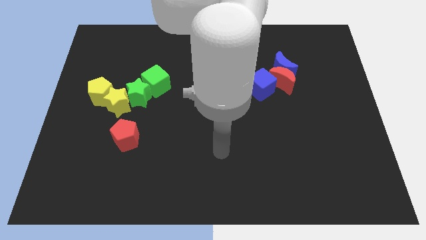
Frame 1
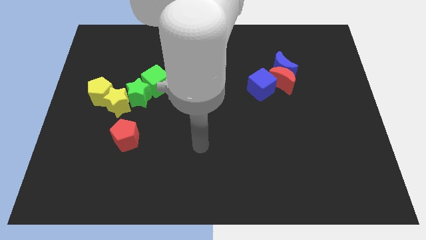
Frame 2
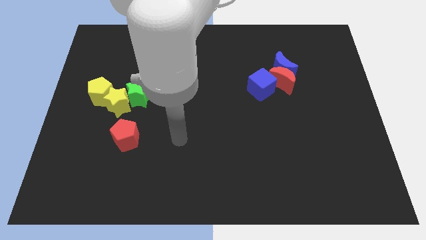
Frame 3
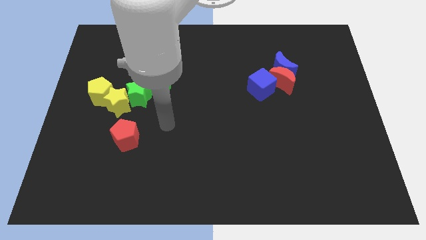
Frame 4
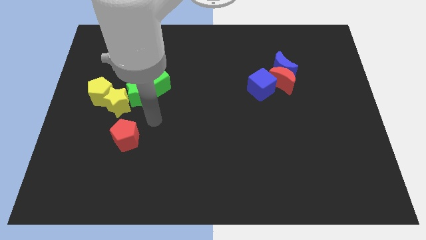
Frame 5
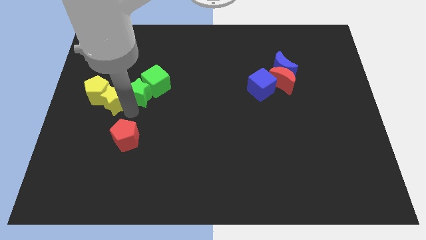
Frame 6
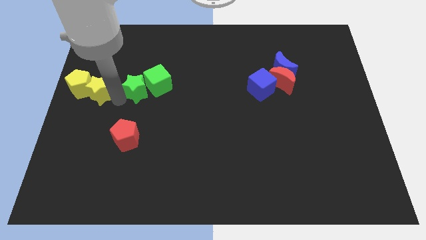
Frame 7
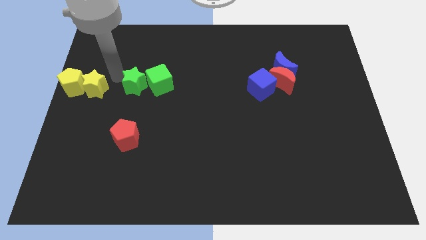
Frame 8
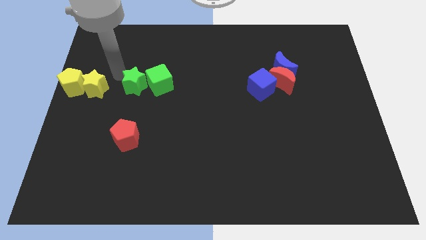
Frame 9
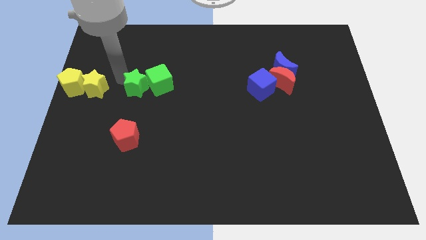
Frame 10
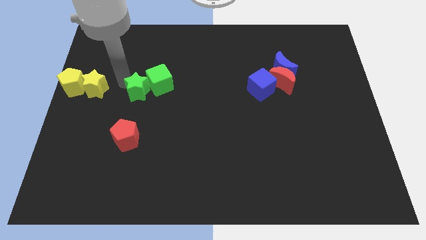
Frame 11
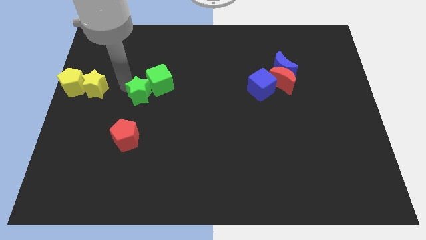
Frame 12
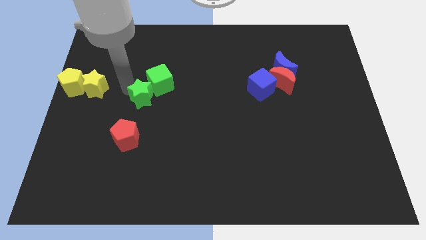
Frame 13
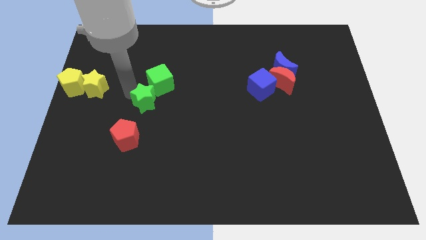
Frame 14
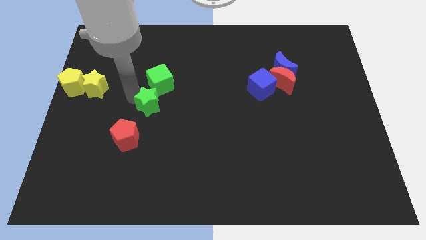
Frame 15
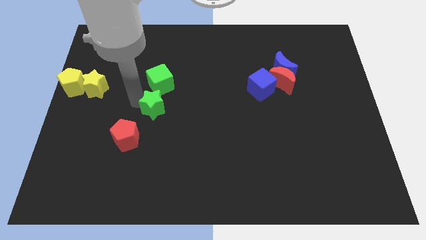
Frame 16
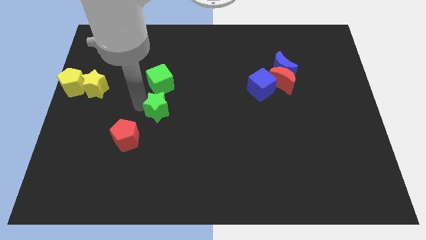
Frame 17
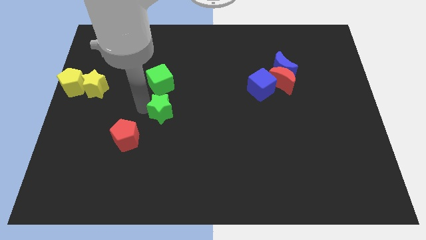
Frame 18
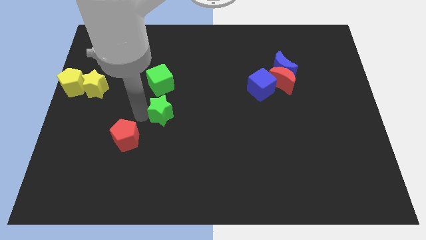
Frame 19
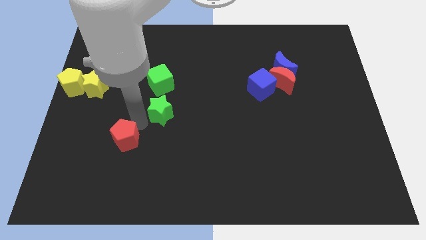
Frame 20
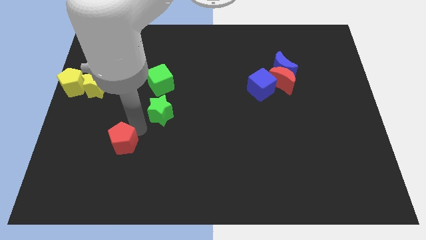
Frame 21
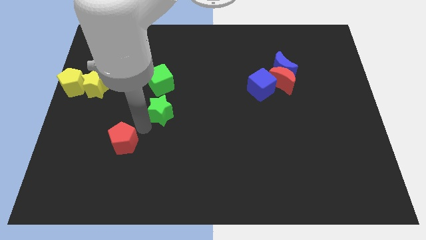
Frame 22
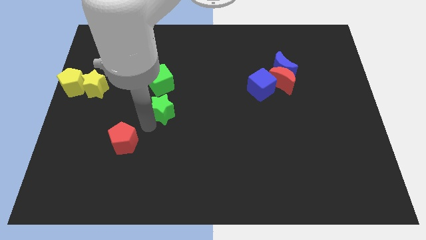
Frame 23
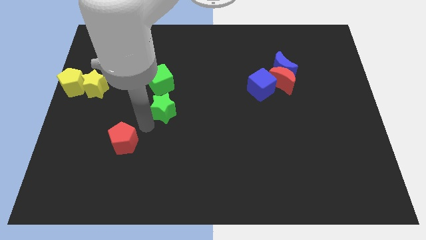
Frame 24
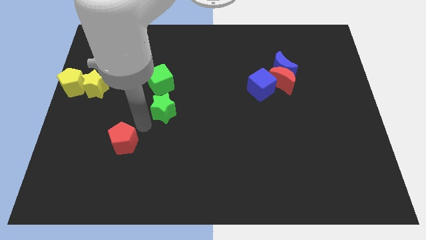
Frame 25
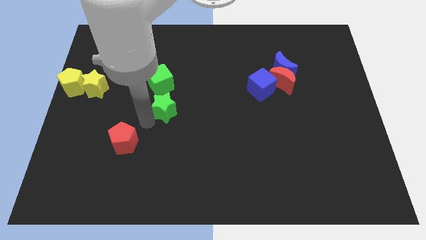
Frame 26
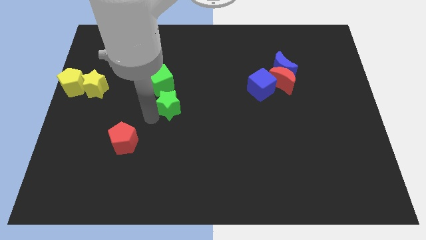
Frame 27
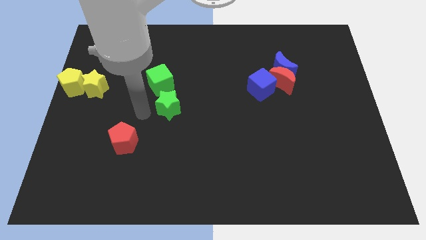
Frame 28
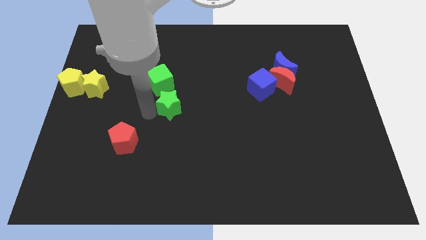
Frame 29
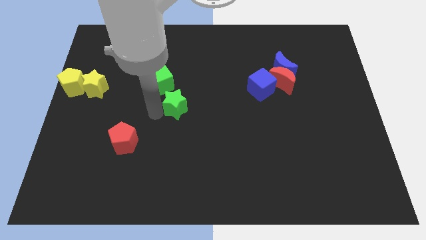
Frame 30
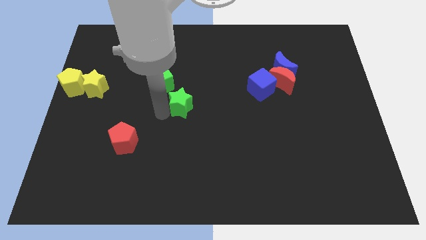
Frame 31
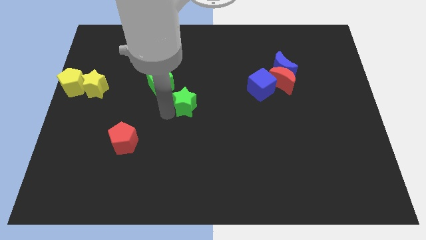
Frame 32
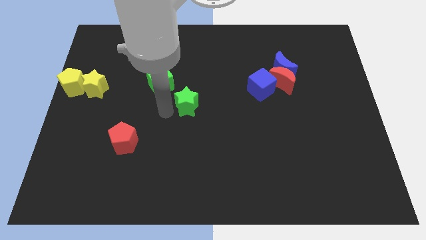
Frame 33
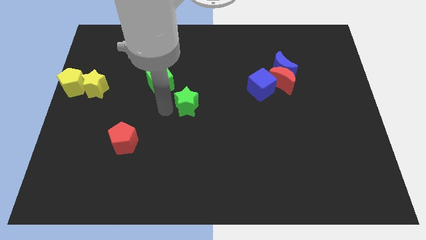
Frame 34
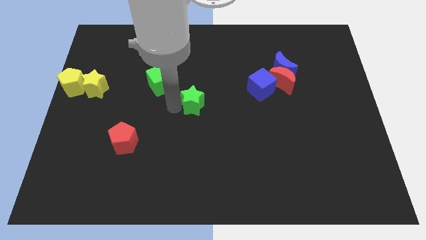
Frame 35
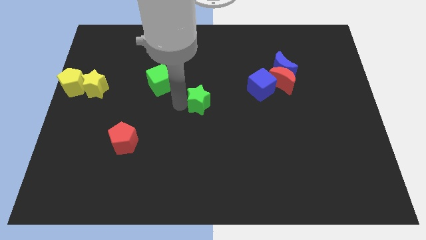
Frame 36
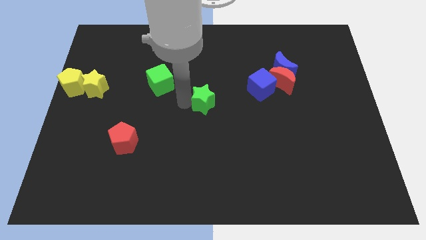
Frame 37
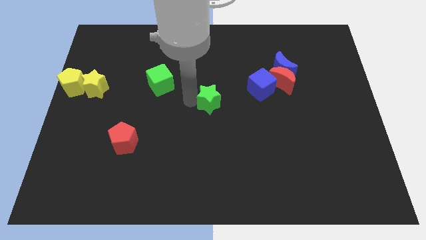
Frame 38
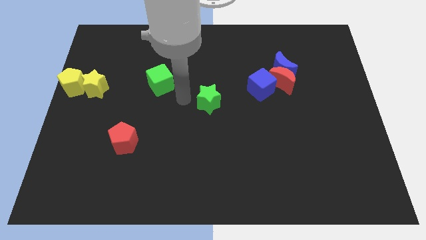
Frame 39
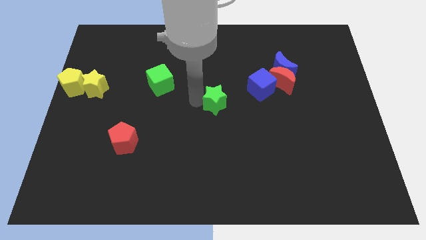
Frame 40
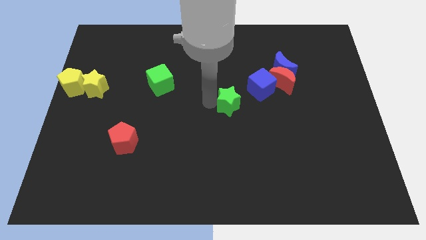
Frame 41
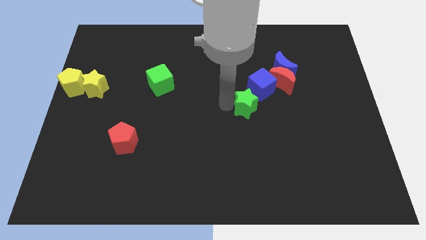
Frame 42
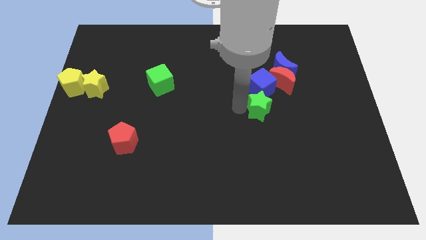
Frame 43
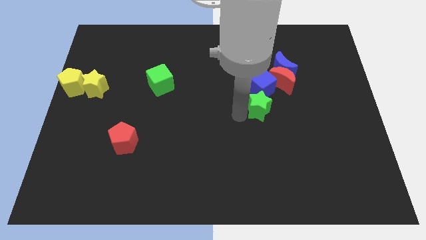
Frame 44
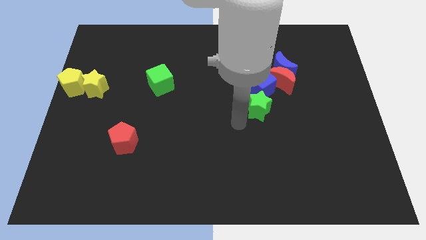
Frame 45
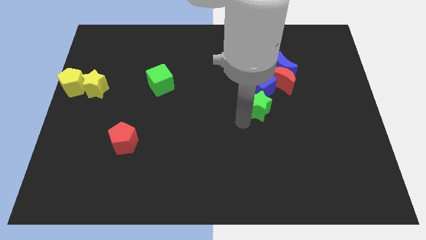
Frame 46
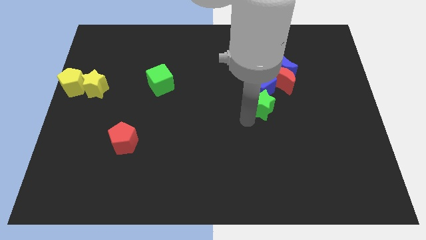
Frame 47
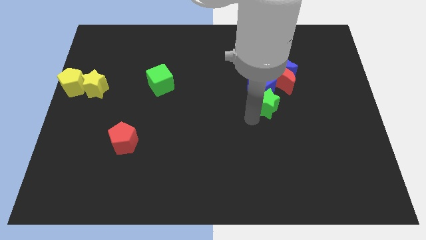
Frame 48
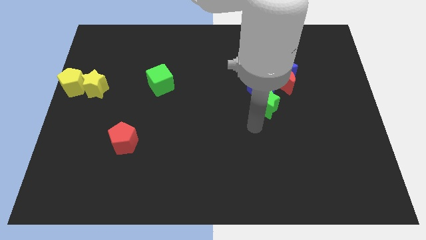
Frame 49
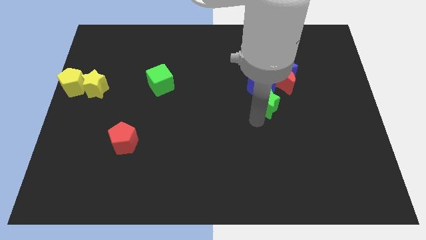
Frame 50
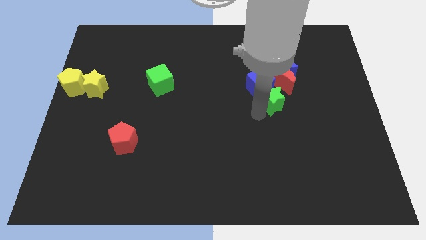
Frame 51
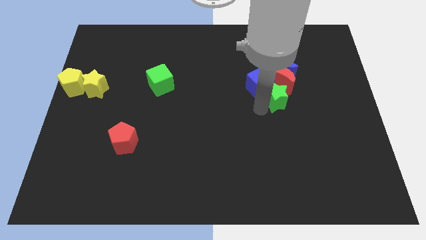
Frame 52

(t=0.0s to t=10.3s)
move the green star close to the red moon

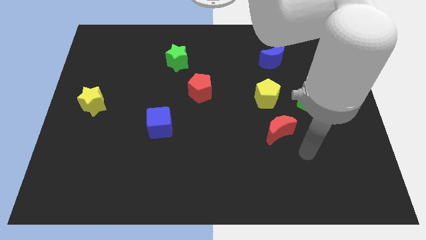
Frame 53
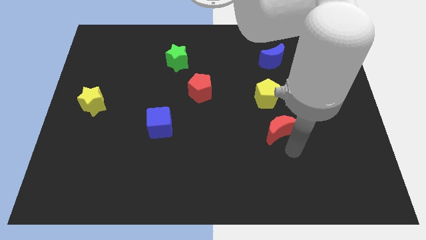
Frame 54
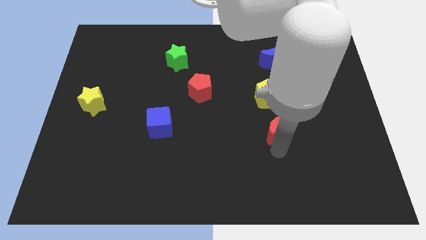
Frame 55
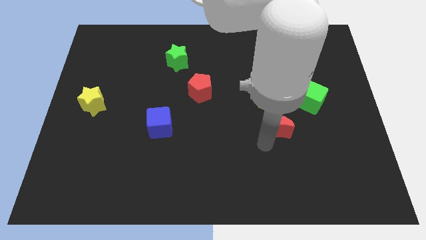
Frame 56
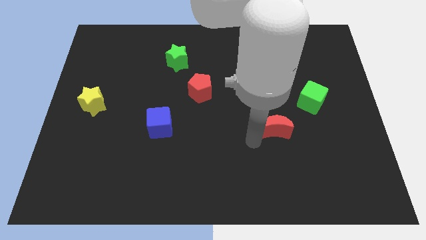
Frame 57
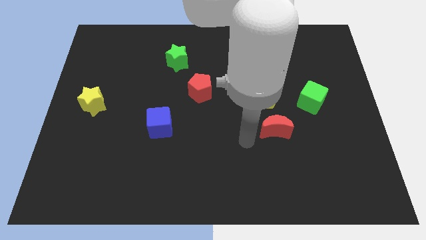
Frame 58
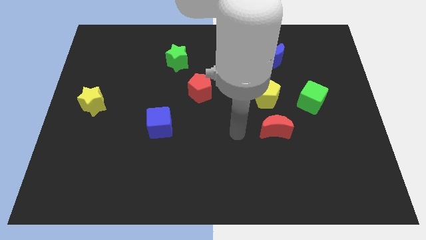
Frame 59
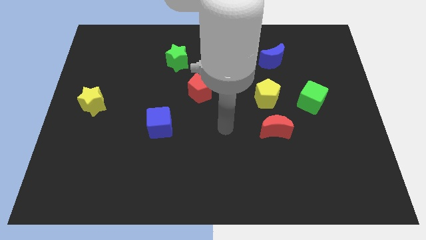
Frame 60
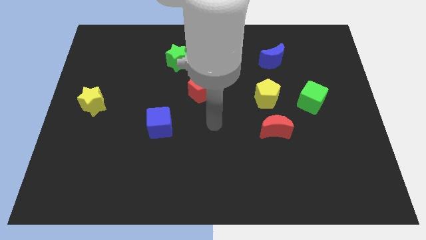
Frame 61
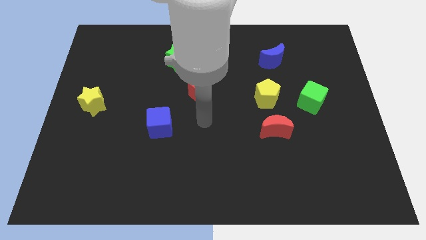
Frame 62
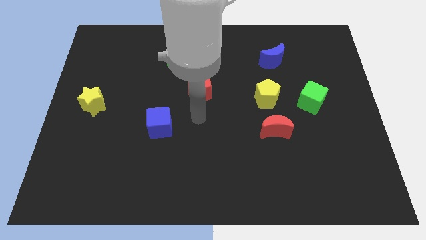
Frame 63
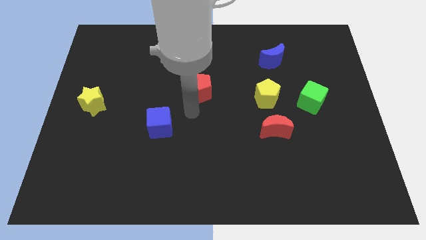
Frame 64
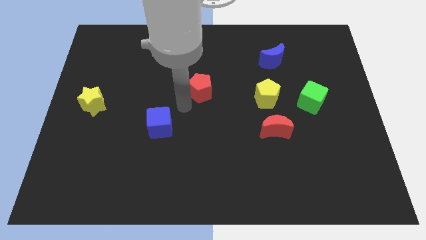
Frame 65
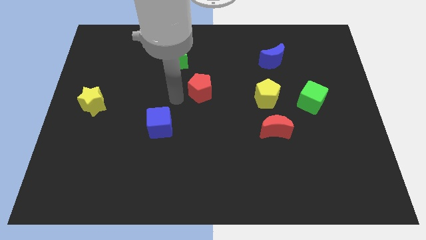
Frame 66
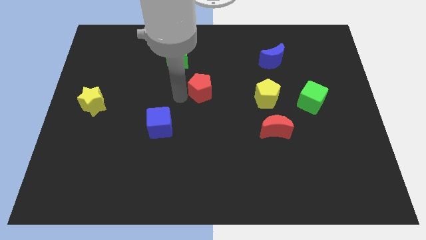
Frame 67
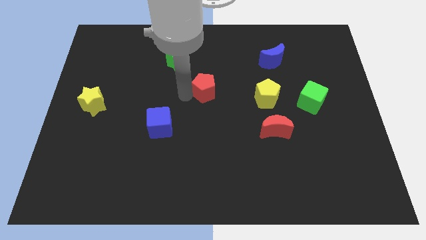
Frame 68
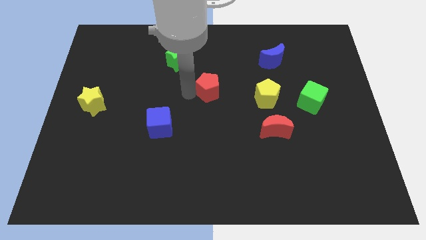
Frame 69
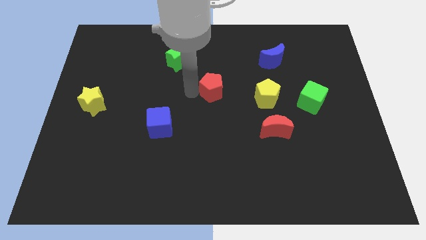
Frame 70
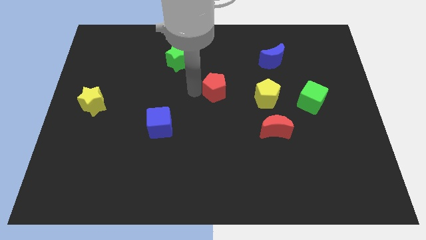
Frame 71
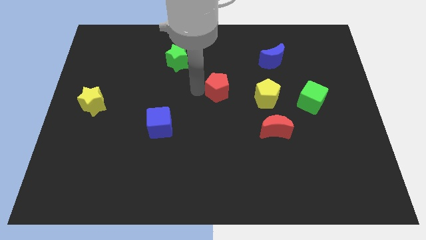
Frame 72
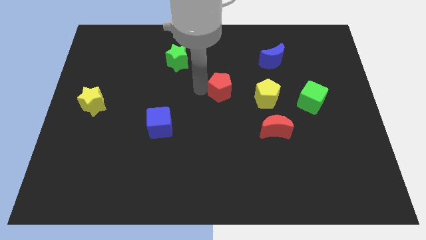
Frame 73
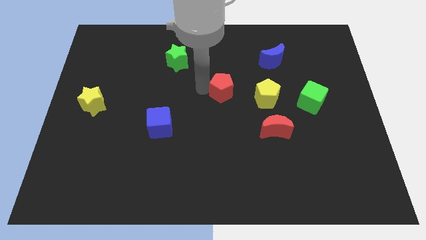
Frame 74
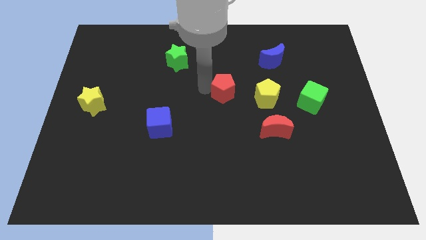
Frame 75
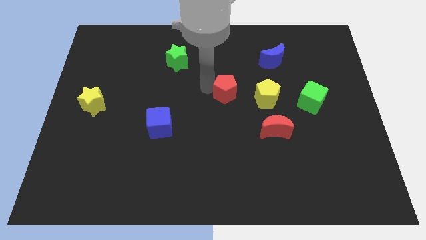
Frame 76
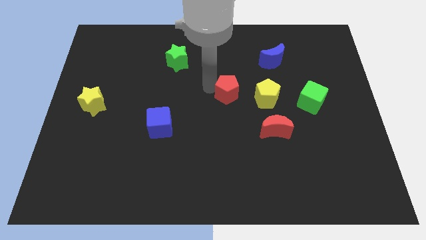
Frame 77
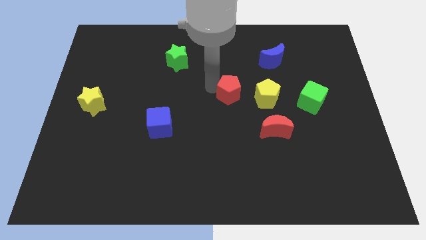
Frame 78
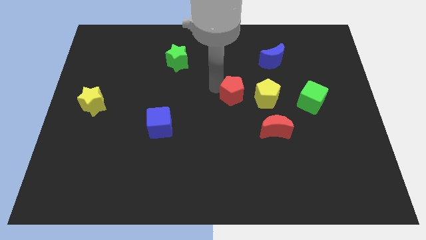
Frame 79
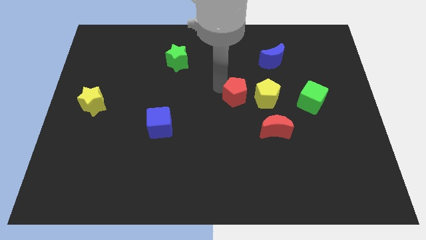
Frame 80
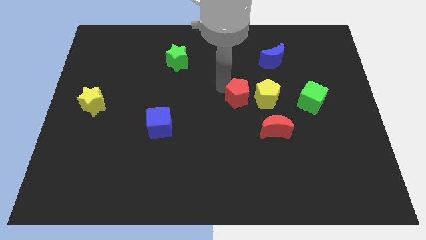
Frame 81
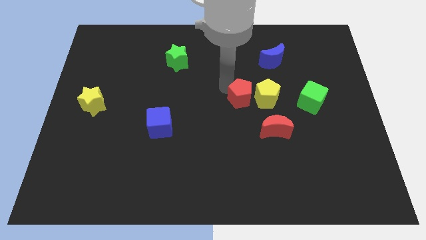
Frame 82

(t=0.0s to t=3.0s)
push the red pentagon to the yellow pentagon
